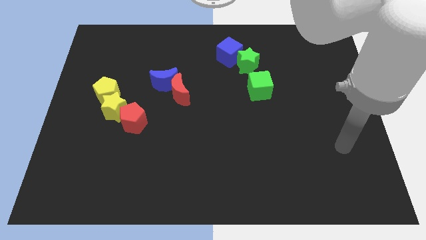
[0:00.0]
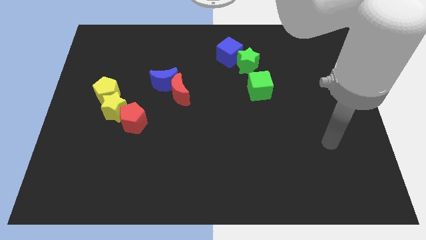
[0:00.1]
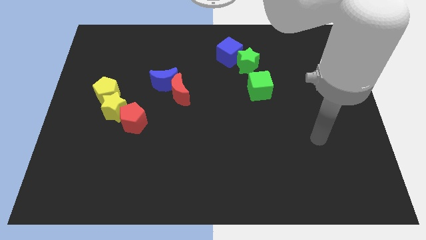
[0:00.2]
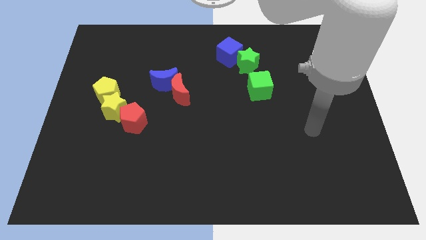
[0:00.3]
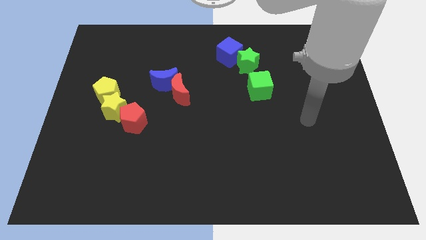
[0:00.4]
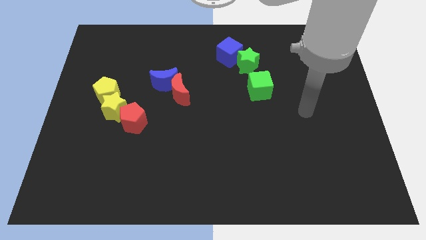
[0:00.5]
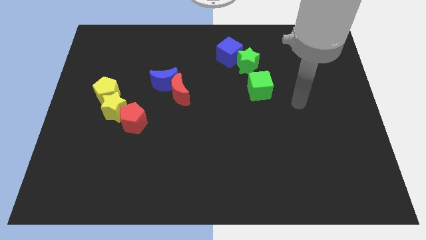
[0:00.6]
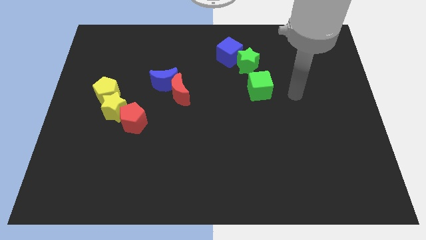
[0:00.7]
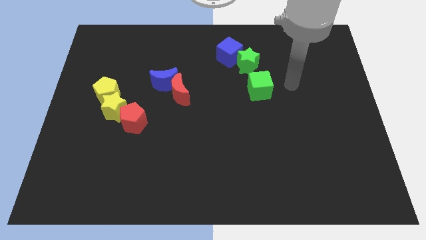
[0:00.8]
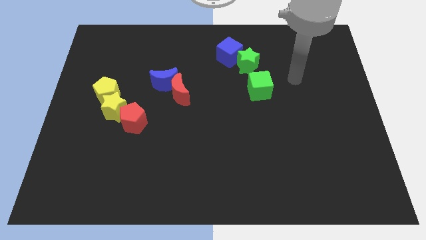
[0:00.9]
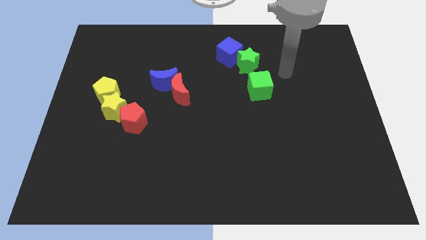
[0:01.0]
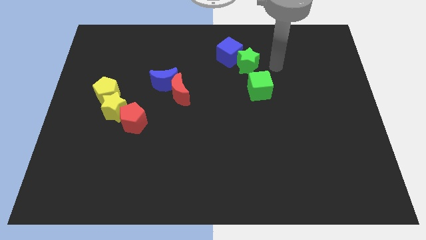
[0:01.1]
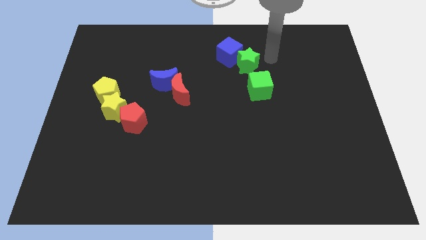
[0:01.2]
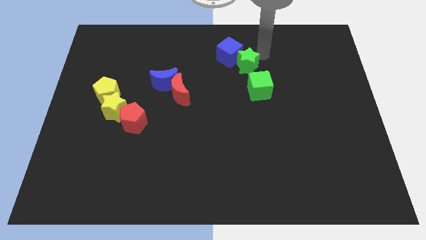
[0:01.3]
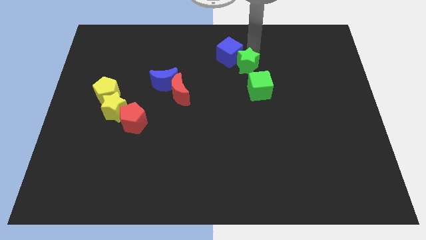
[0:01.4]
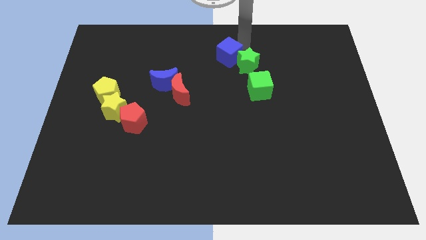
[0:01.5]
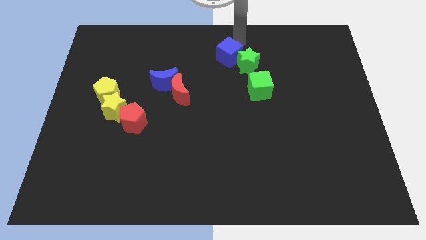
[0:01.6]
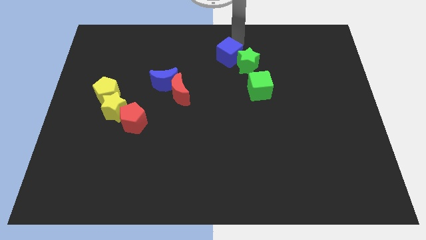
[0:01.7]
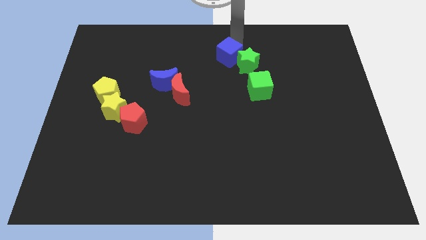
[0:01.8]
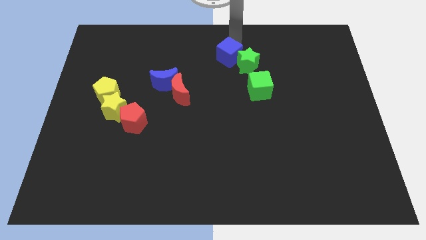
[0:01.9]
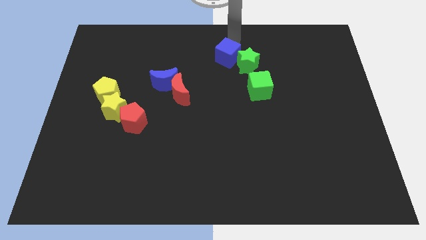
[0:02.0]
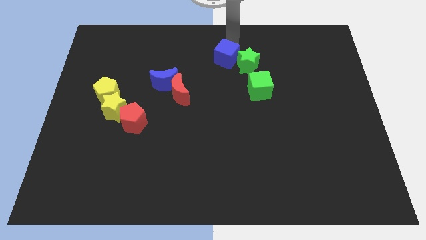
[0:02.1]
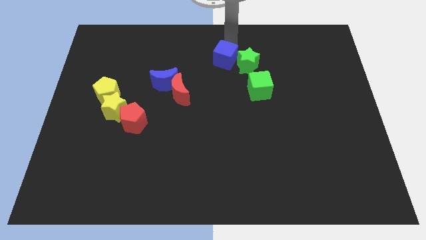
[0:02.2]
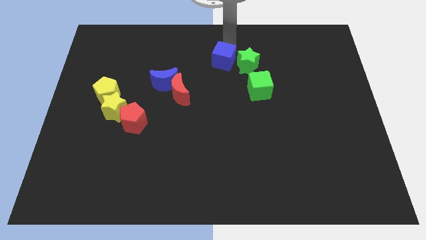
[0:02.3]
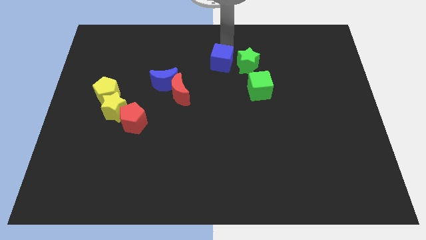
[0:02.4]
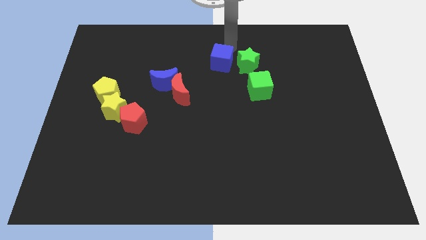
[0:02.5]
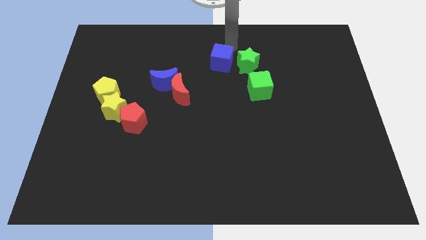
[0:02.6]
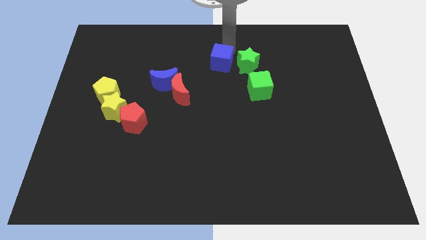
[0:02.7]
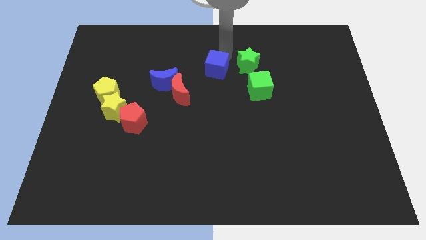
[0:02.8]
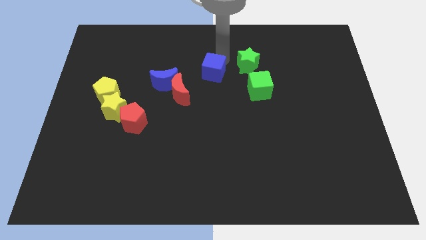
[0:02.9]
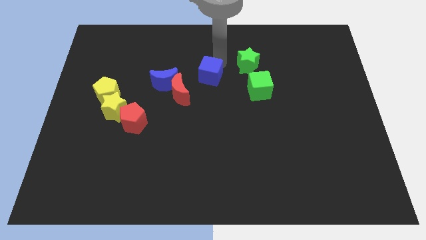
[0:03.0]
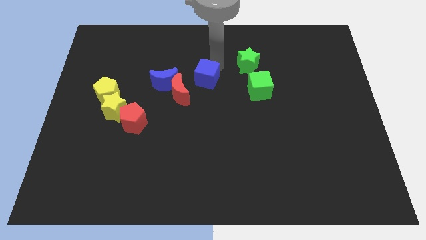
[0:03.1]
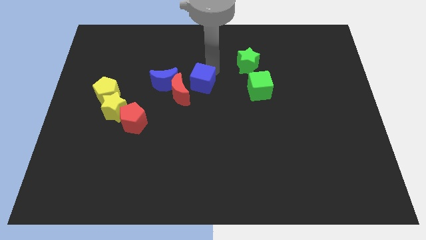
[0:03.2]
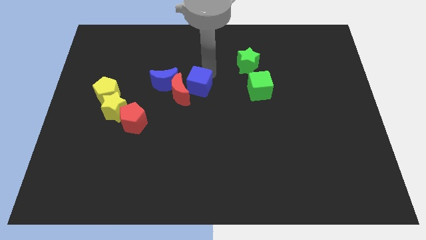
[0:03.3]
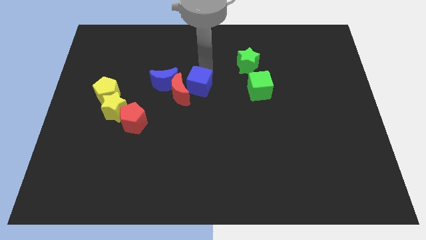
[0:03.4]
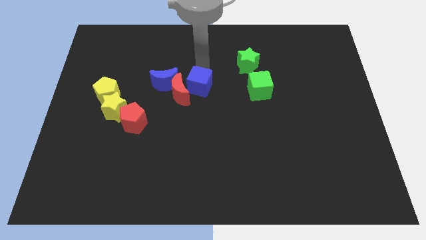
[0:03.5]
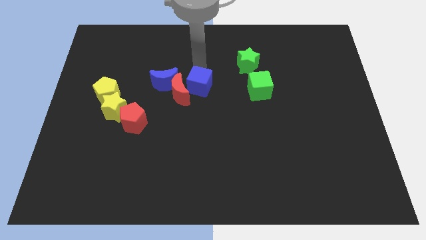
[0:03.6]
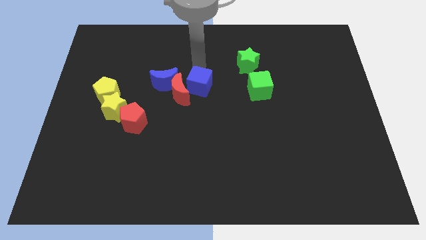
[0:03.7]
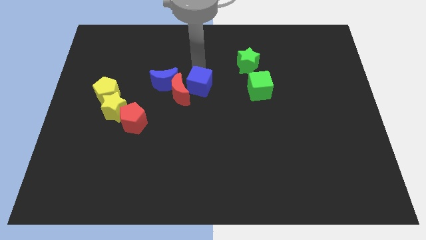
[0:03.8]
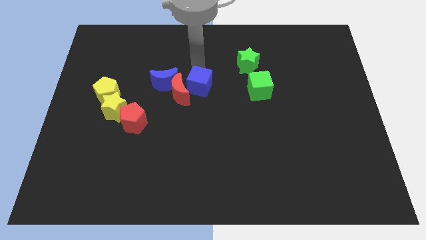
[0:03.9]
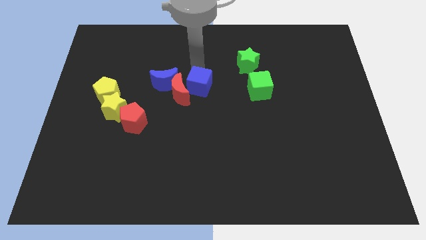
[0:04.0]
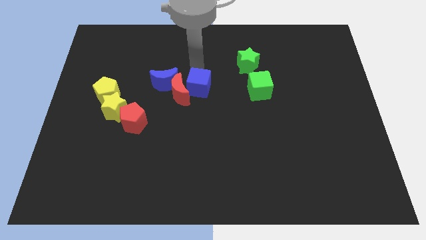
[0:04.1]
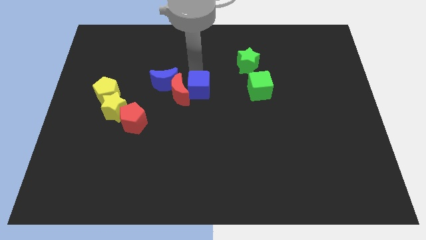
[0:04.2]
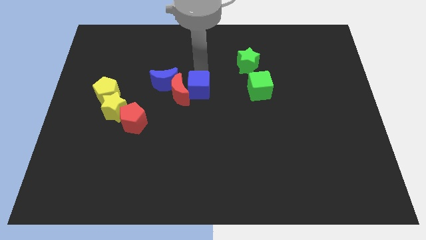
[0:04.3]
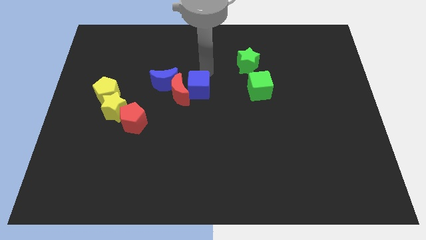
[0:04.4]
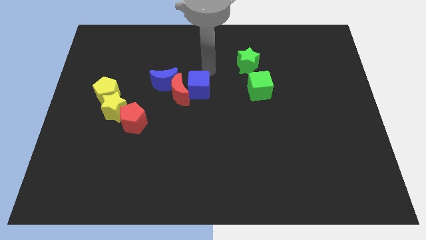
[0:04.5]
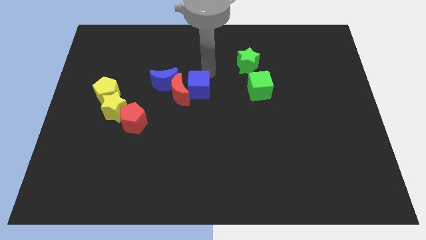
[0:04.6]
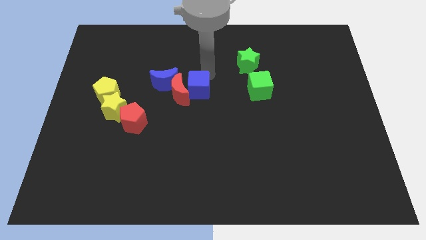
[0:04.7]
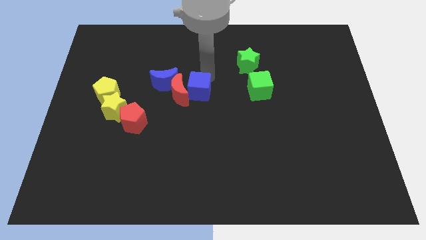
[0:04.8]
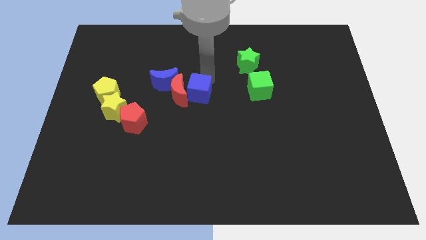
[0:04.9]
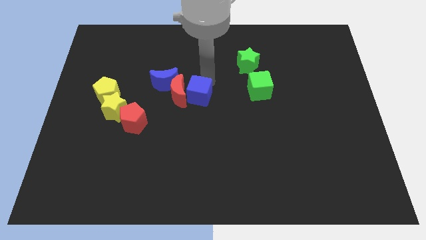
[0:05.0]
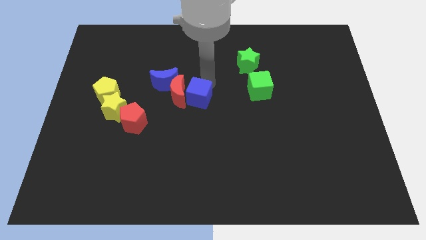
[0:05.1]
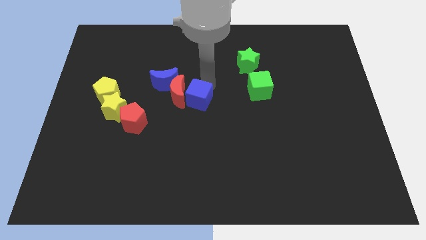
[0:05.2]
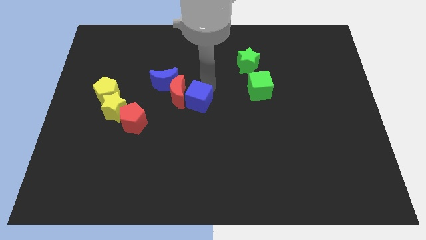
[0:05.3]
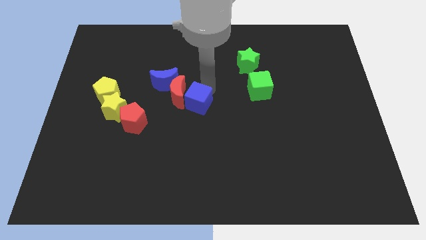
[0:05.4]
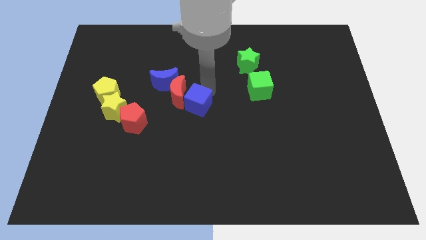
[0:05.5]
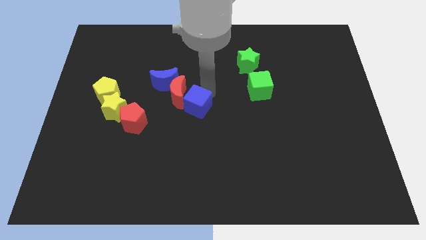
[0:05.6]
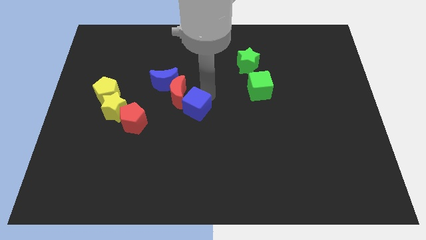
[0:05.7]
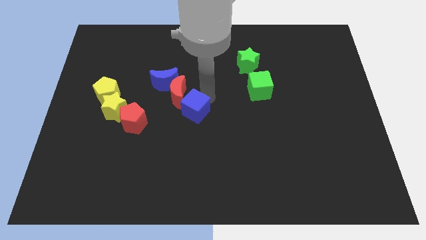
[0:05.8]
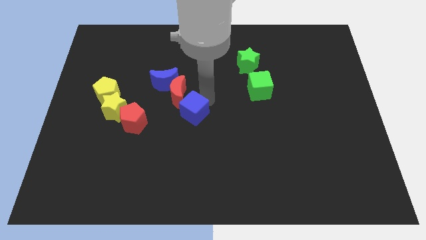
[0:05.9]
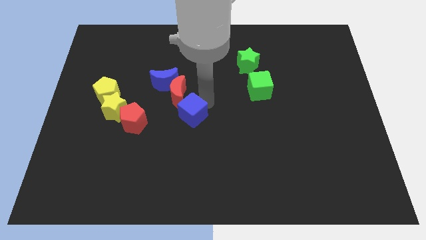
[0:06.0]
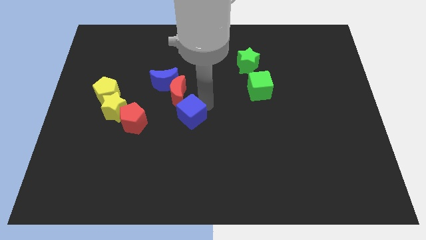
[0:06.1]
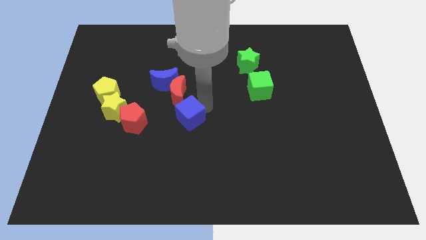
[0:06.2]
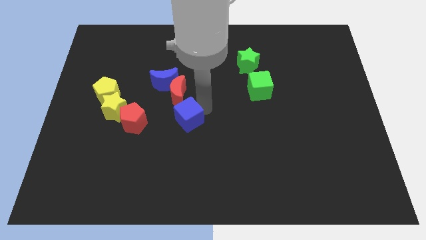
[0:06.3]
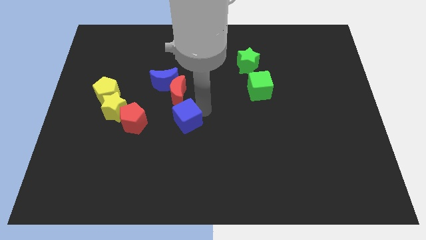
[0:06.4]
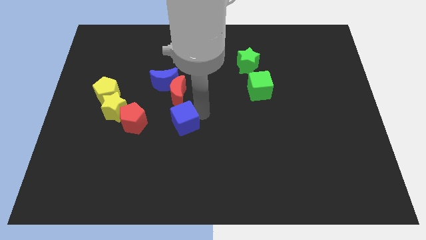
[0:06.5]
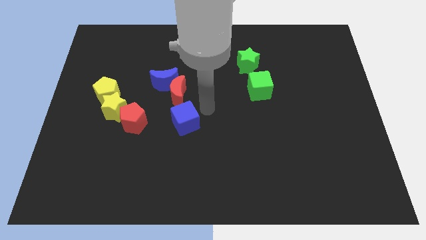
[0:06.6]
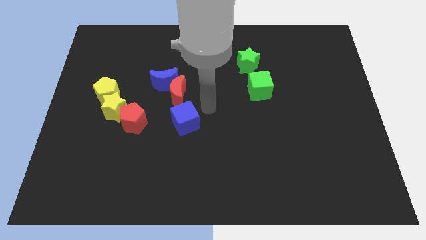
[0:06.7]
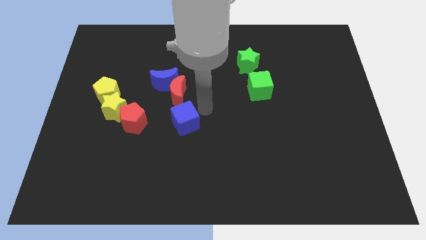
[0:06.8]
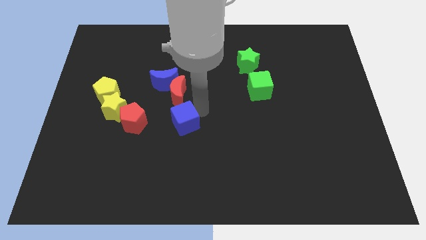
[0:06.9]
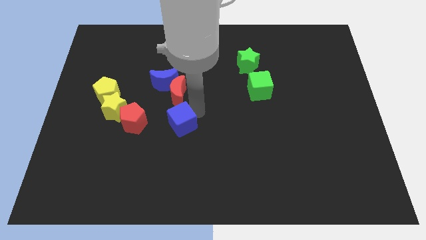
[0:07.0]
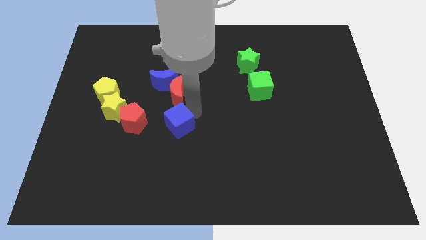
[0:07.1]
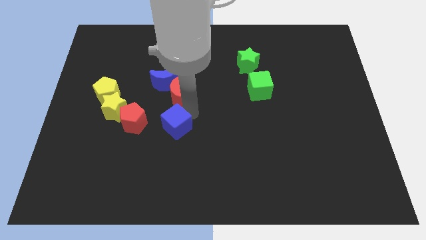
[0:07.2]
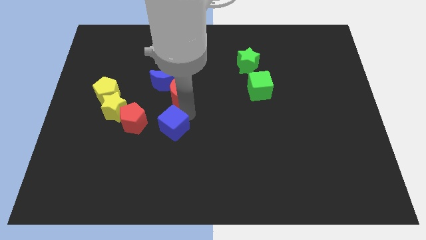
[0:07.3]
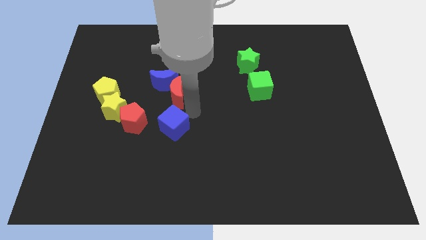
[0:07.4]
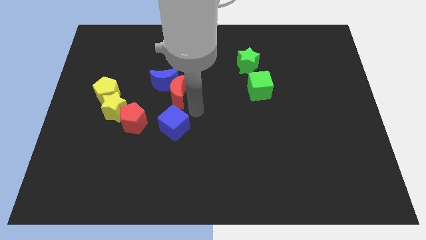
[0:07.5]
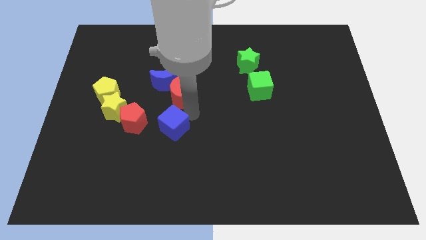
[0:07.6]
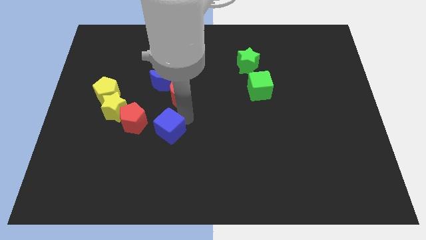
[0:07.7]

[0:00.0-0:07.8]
put the blue cube diagonally down and to the right of the red pentagon
